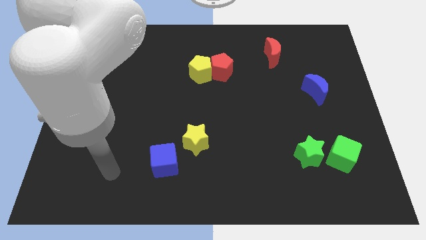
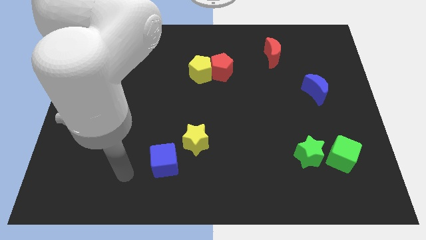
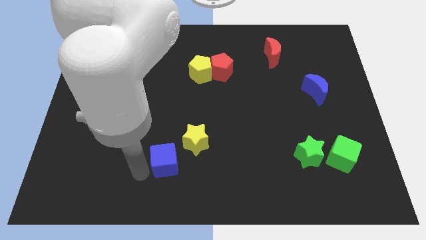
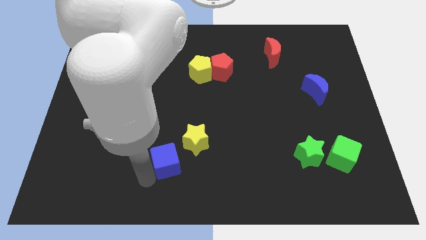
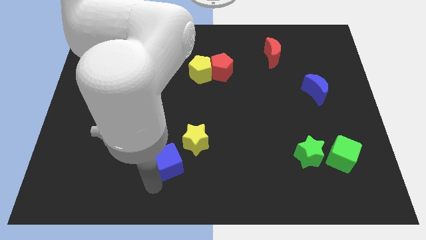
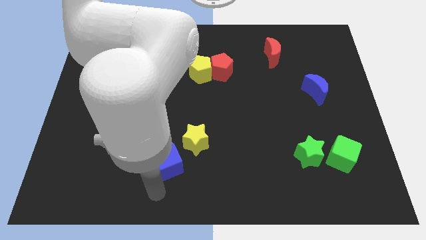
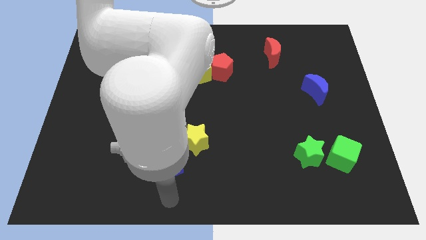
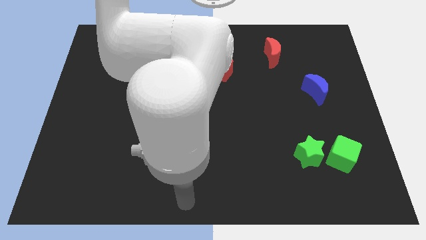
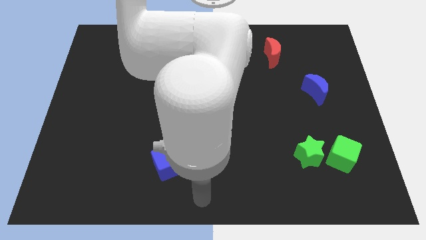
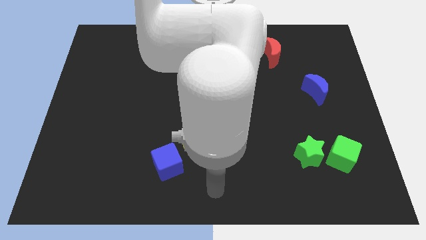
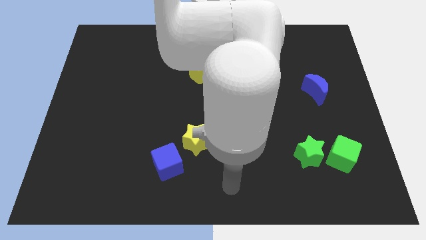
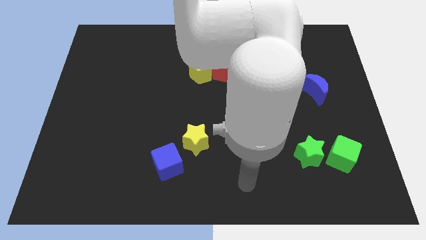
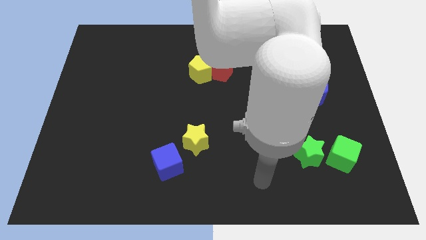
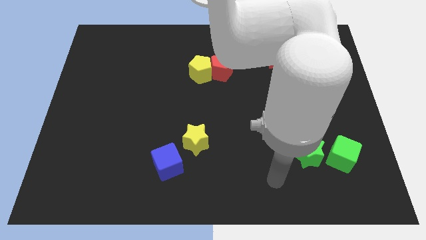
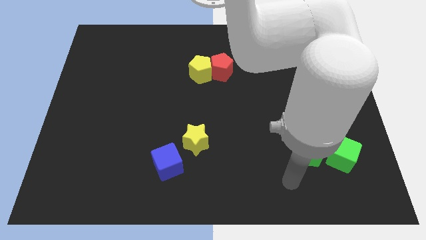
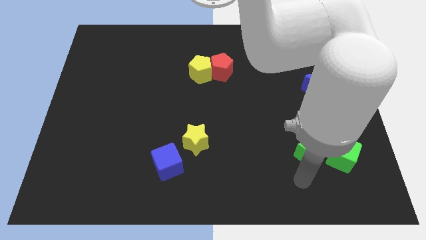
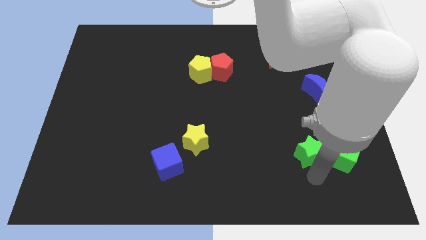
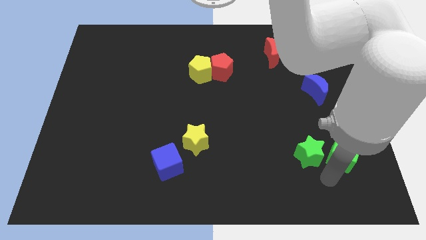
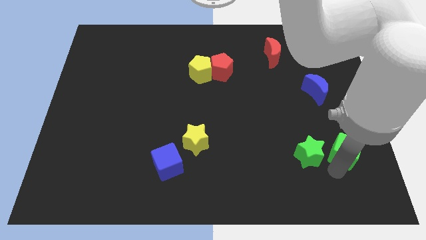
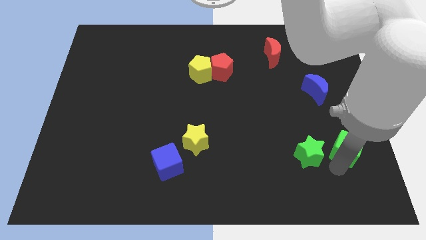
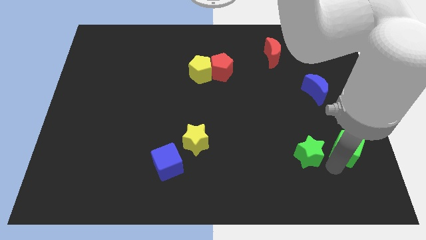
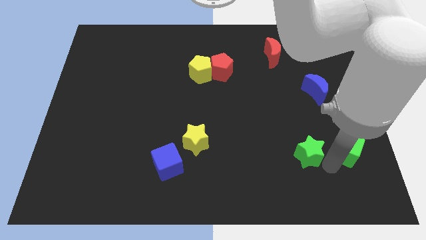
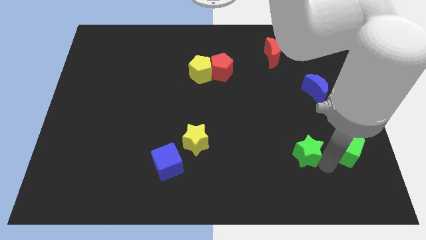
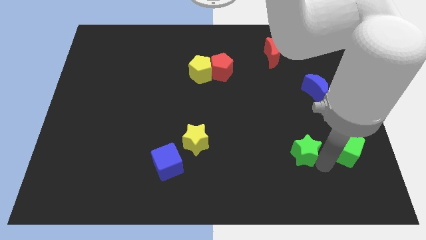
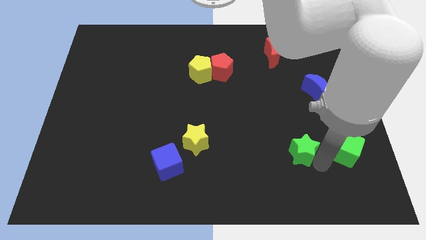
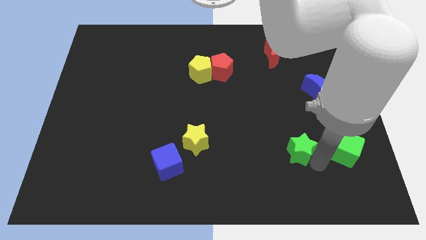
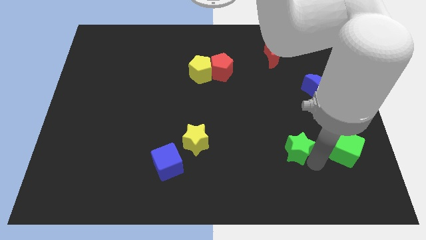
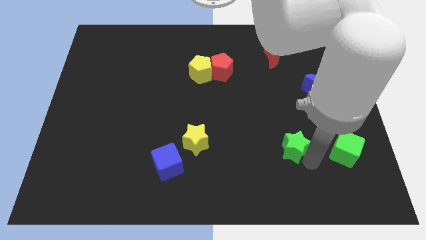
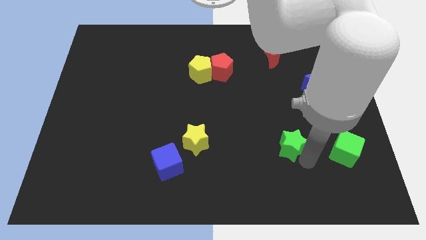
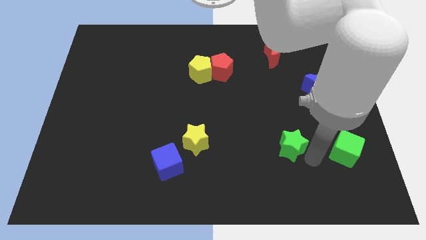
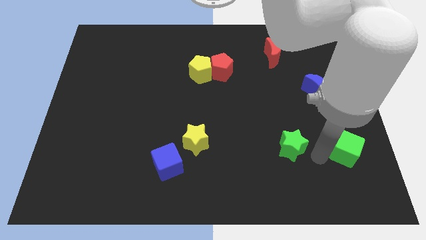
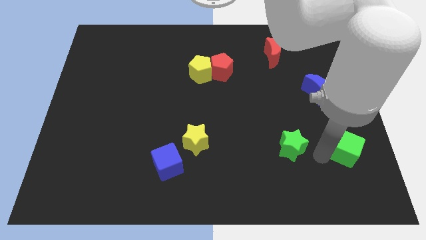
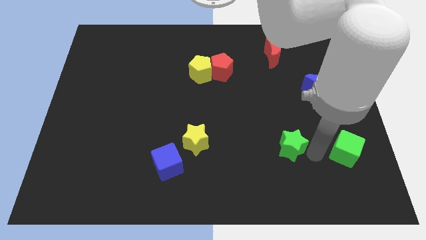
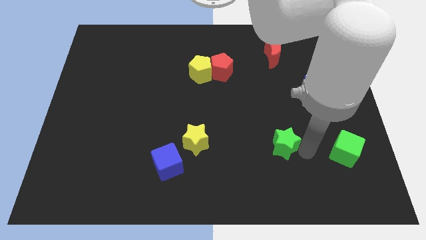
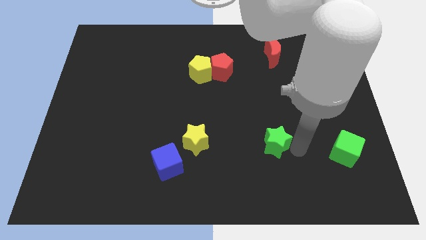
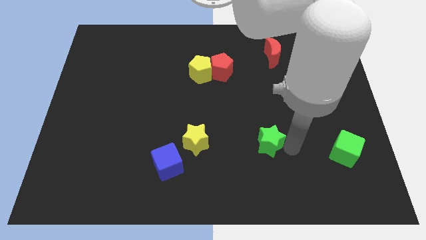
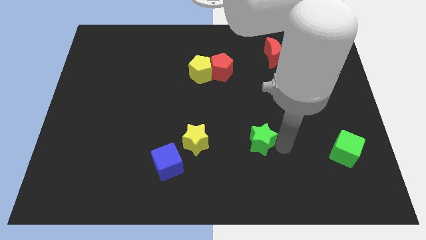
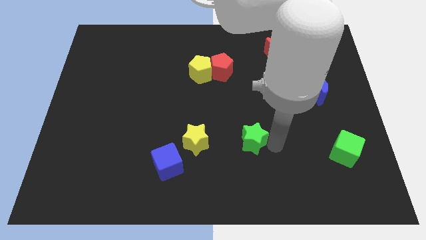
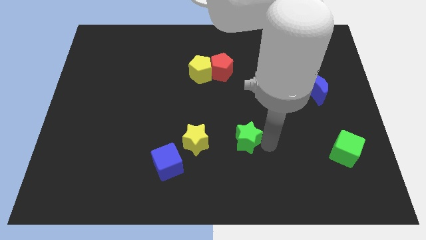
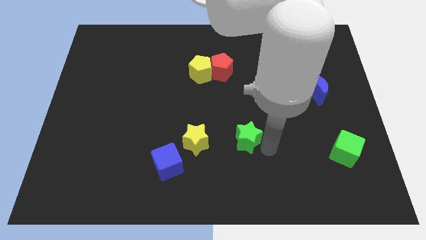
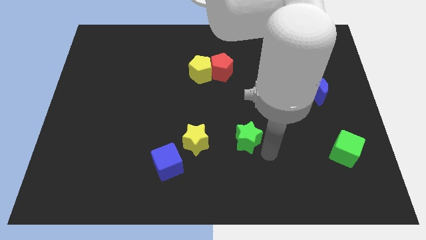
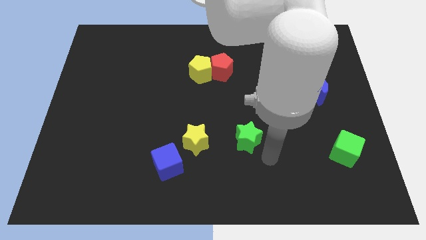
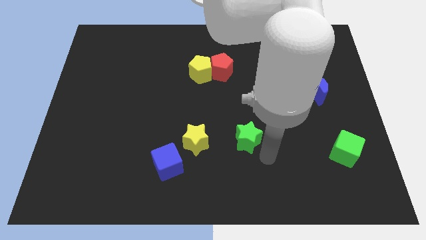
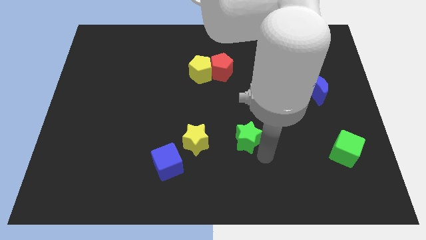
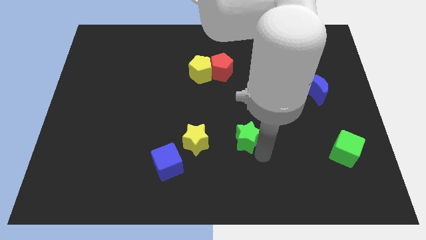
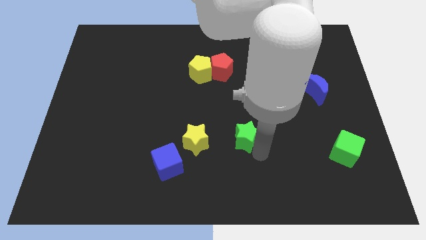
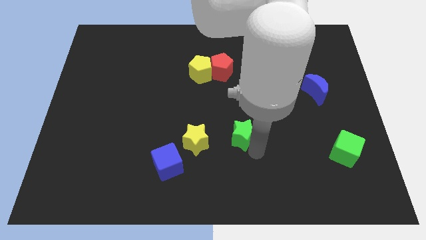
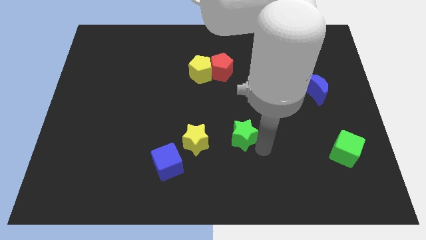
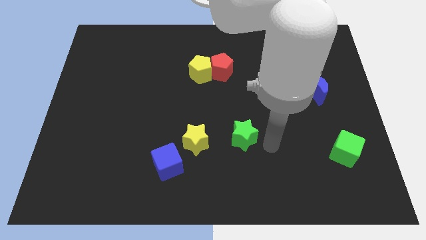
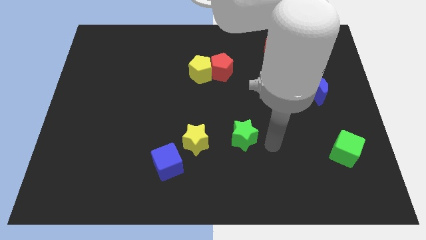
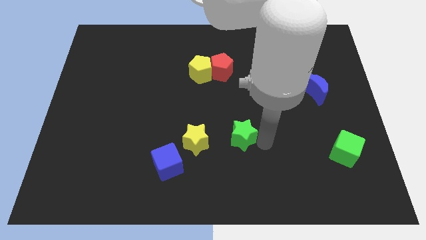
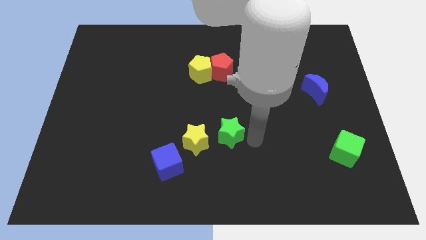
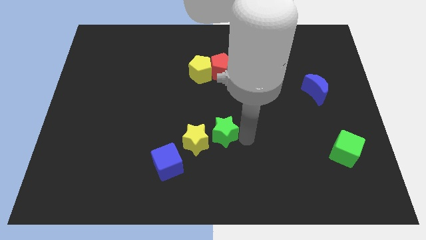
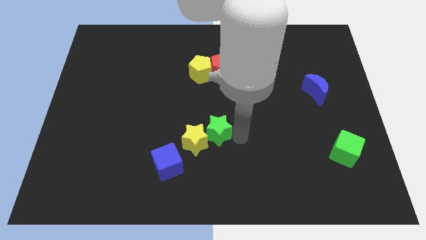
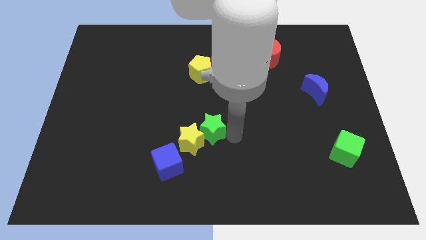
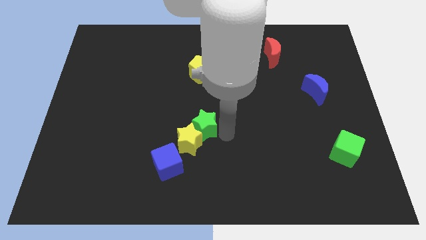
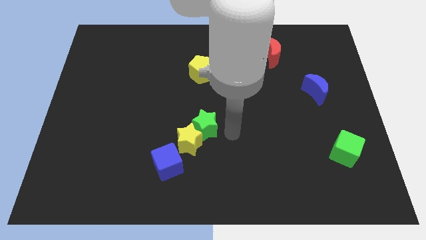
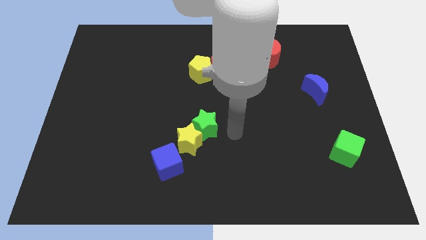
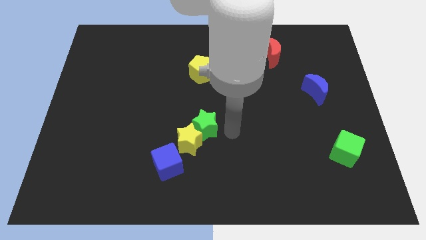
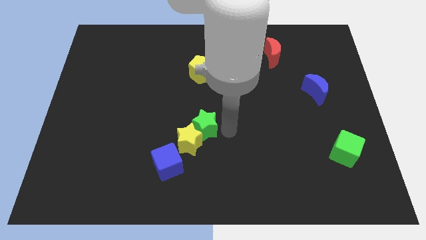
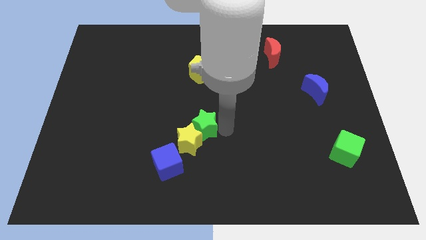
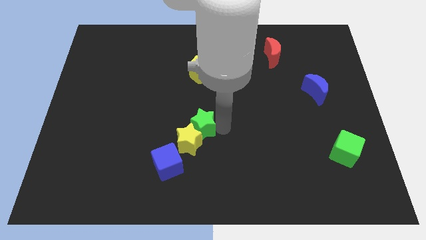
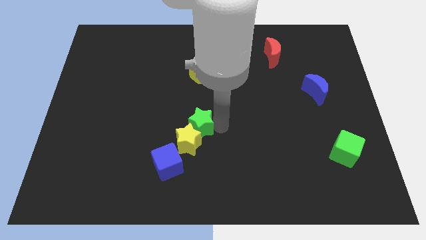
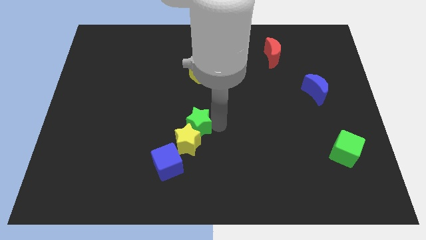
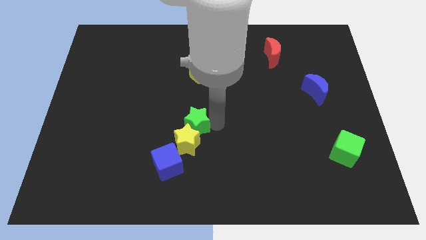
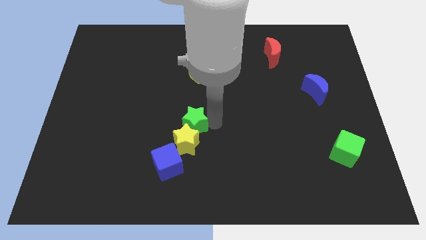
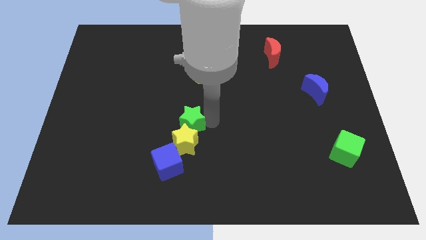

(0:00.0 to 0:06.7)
put the green star to the top side of the blue cube
